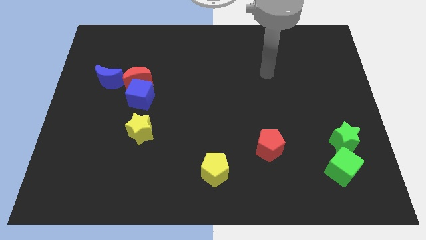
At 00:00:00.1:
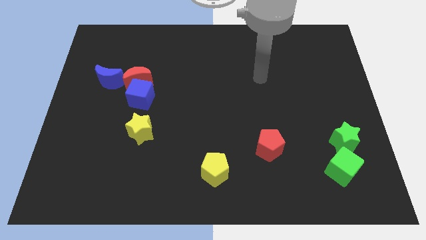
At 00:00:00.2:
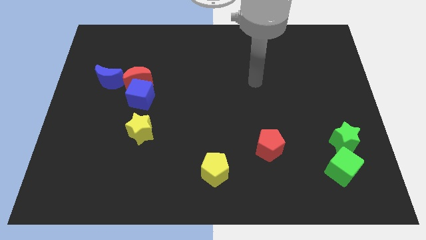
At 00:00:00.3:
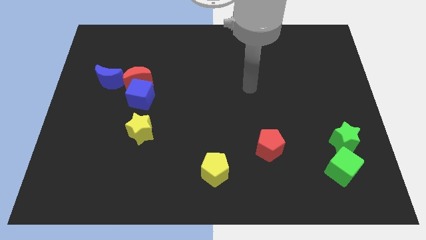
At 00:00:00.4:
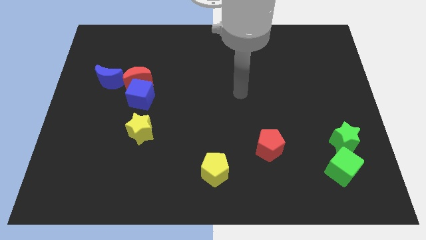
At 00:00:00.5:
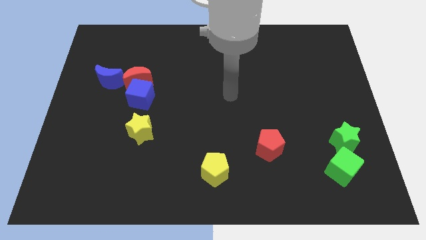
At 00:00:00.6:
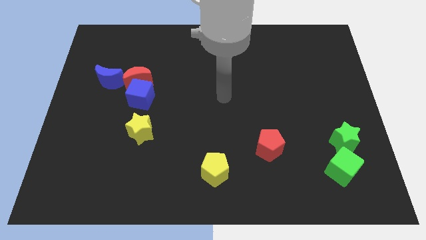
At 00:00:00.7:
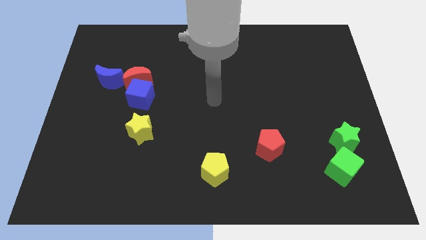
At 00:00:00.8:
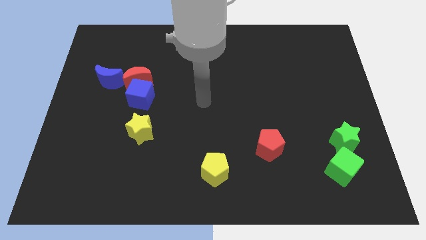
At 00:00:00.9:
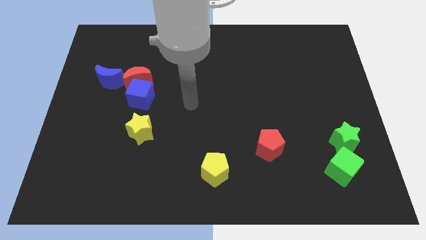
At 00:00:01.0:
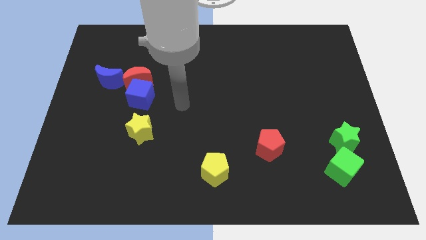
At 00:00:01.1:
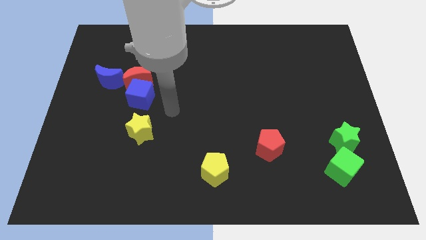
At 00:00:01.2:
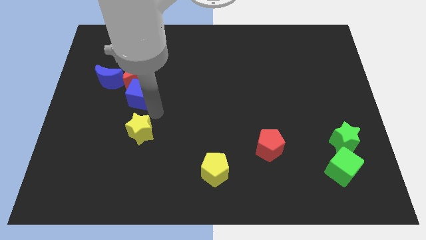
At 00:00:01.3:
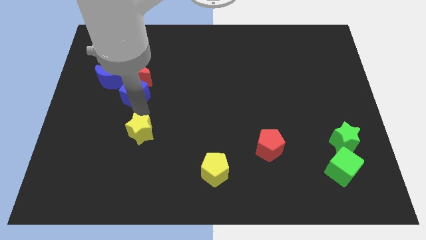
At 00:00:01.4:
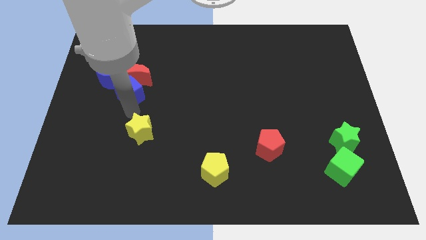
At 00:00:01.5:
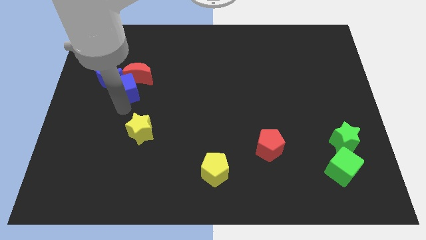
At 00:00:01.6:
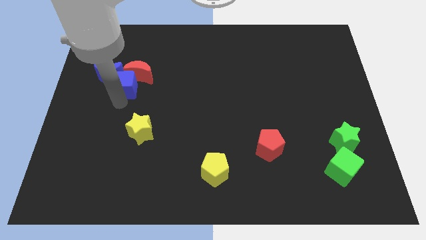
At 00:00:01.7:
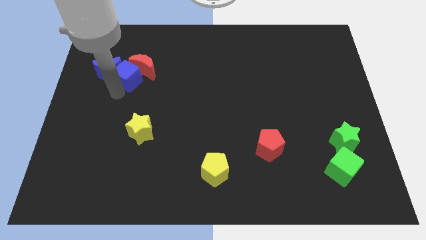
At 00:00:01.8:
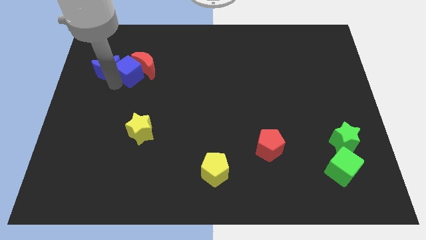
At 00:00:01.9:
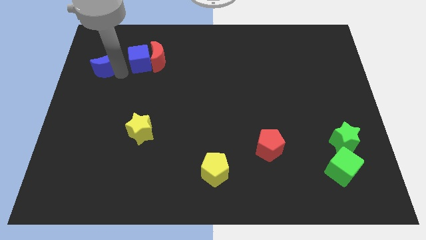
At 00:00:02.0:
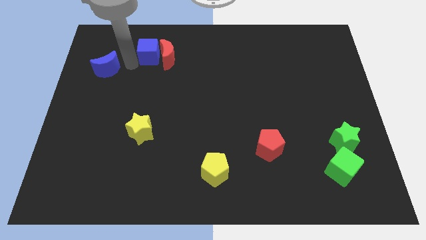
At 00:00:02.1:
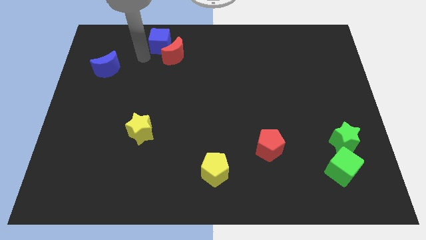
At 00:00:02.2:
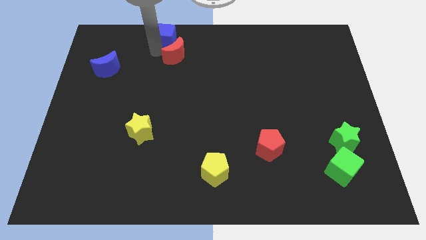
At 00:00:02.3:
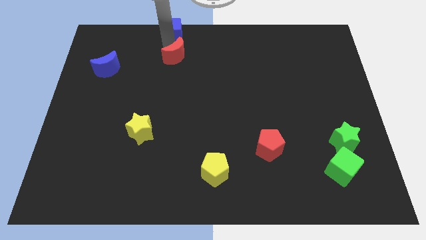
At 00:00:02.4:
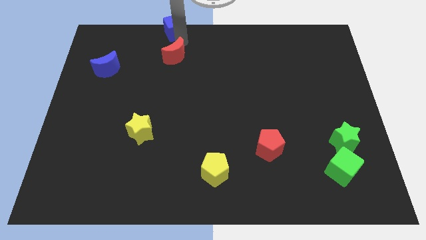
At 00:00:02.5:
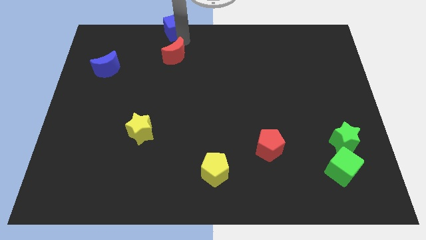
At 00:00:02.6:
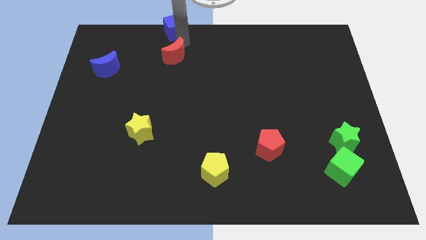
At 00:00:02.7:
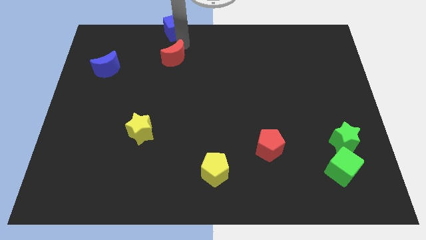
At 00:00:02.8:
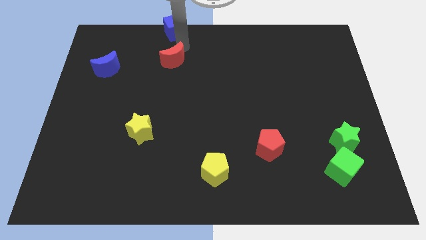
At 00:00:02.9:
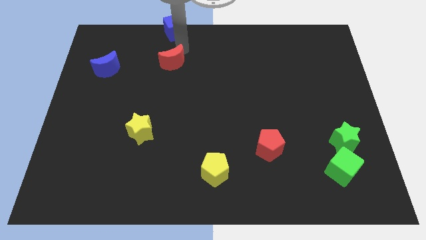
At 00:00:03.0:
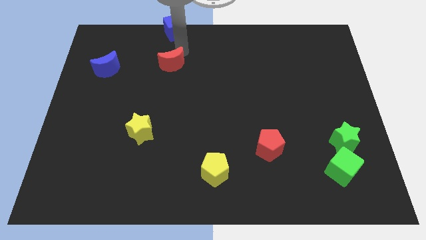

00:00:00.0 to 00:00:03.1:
move the red moon to the right a little bit

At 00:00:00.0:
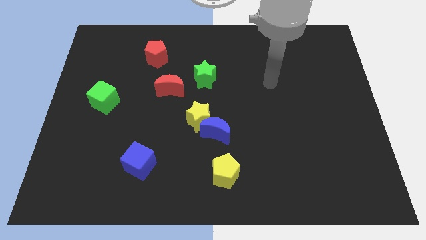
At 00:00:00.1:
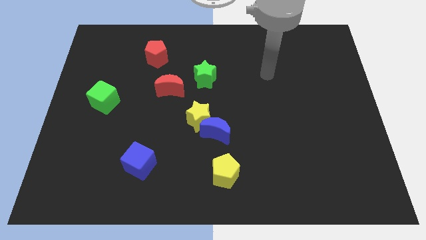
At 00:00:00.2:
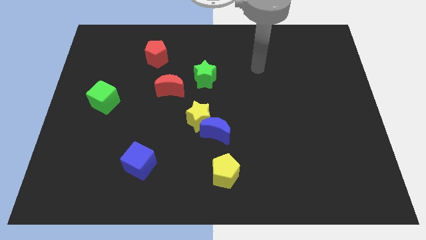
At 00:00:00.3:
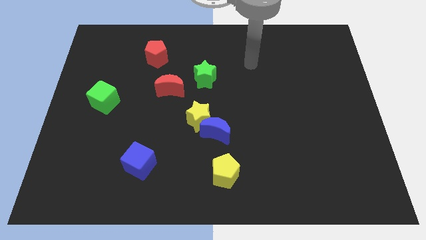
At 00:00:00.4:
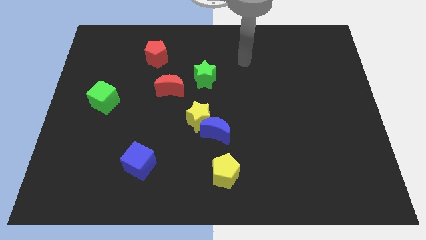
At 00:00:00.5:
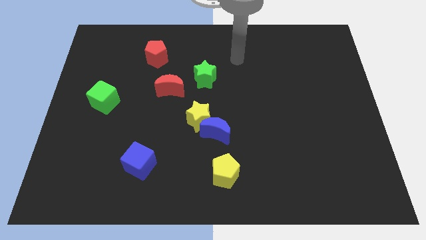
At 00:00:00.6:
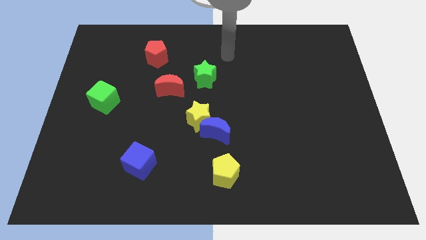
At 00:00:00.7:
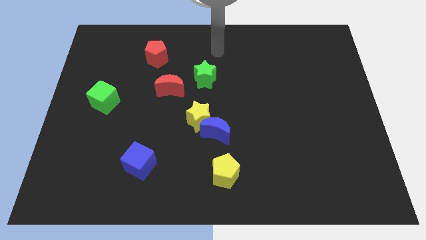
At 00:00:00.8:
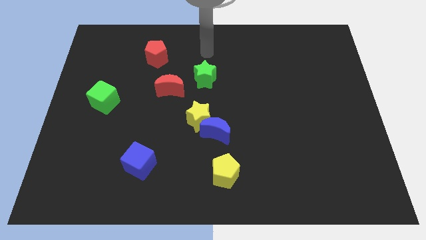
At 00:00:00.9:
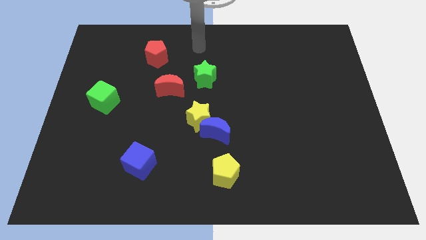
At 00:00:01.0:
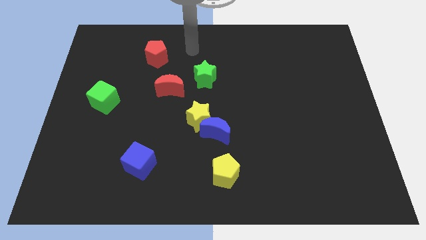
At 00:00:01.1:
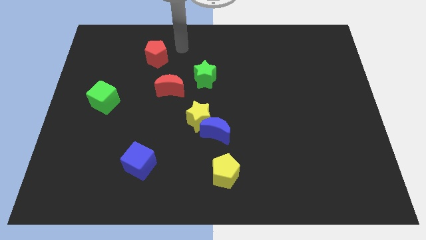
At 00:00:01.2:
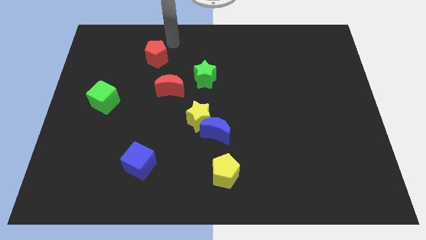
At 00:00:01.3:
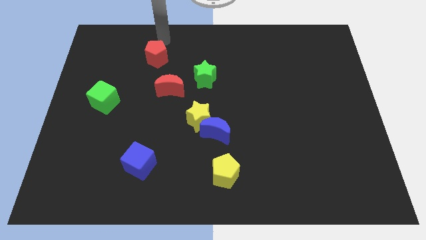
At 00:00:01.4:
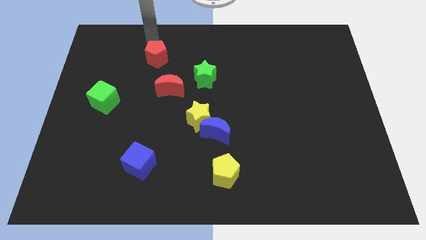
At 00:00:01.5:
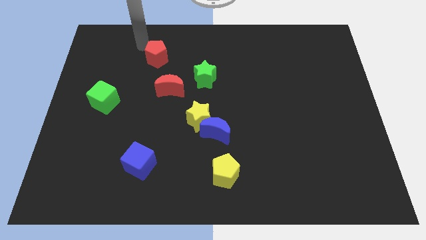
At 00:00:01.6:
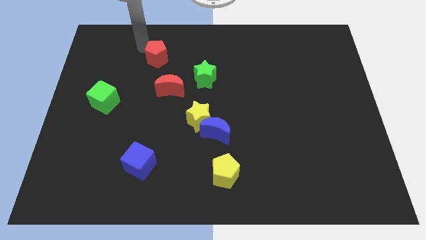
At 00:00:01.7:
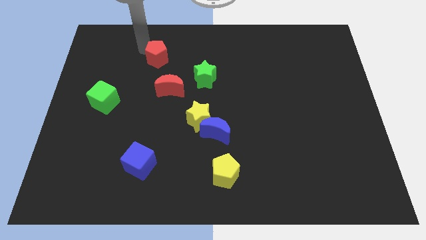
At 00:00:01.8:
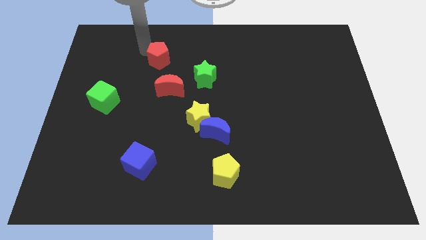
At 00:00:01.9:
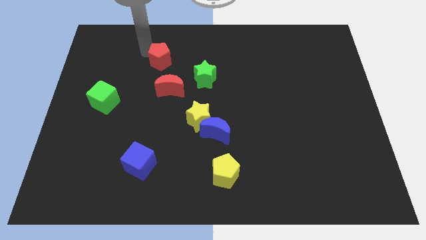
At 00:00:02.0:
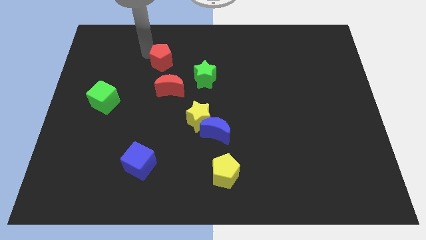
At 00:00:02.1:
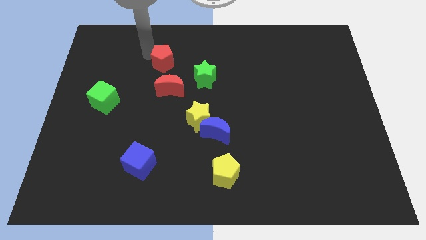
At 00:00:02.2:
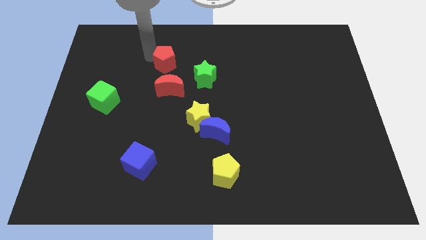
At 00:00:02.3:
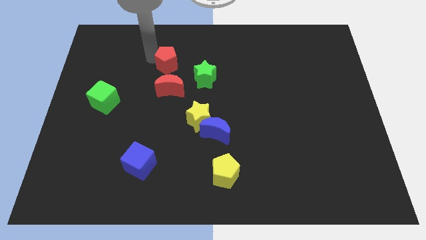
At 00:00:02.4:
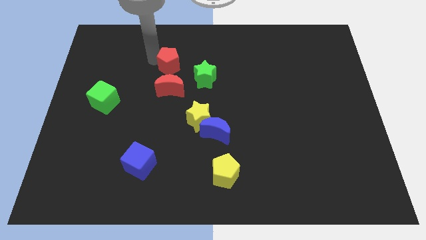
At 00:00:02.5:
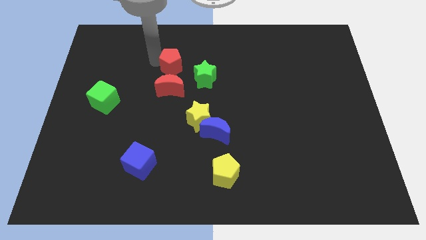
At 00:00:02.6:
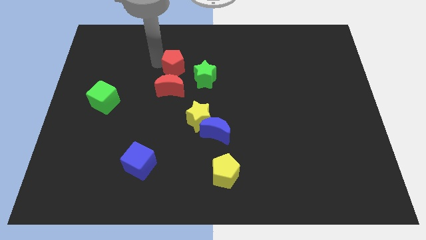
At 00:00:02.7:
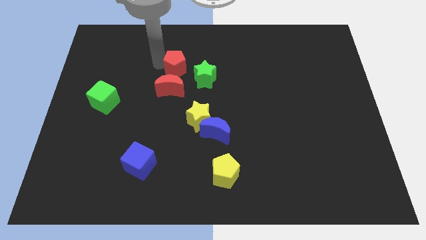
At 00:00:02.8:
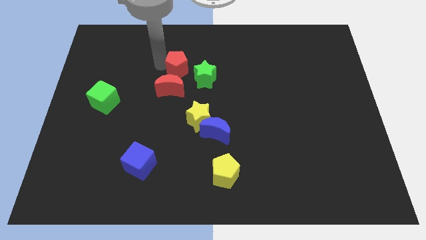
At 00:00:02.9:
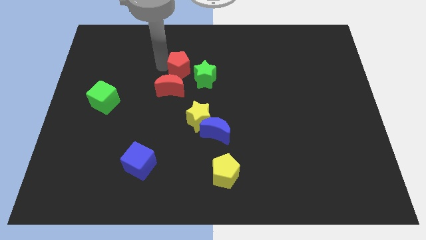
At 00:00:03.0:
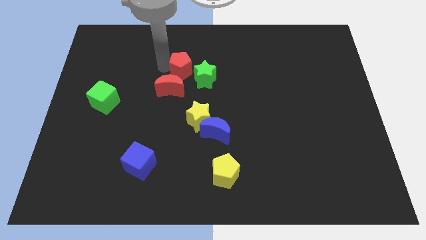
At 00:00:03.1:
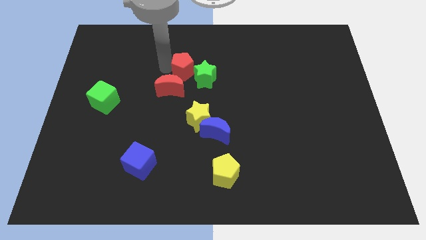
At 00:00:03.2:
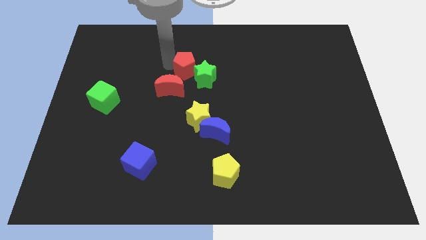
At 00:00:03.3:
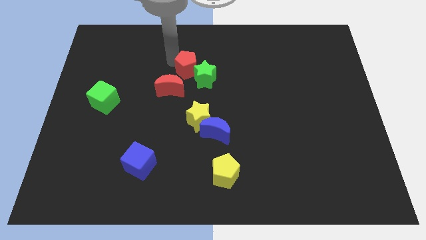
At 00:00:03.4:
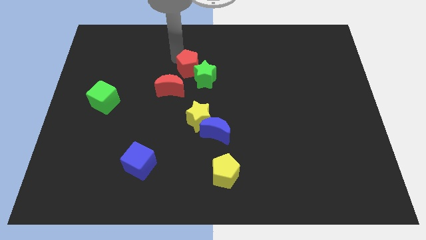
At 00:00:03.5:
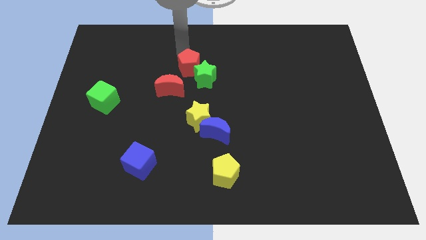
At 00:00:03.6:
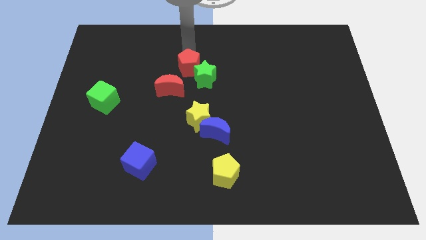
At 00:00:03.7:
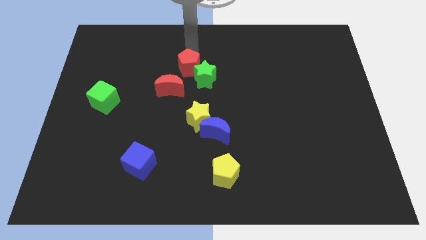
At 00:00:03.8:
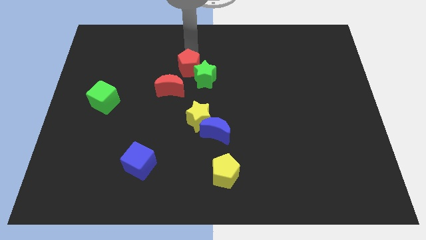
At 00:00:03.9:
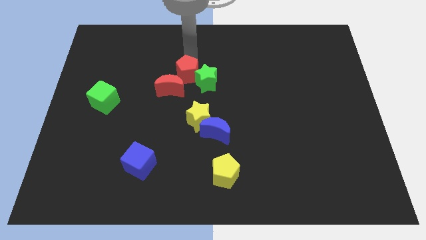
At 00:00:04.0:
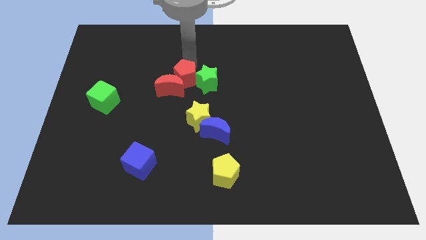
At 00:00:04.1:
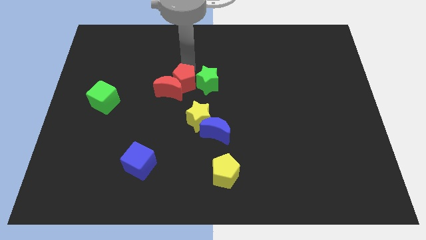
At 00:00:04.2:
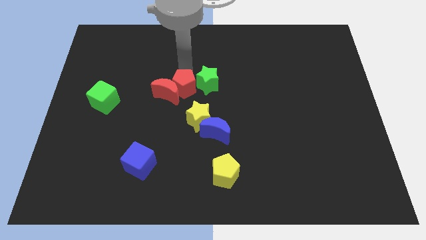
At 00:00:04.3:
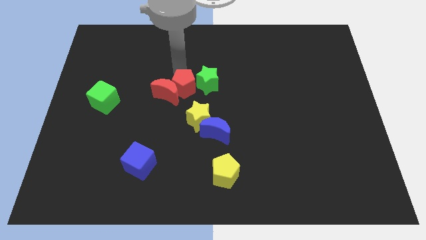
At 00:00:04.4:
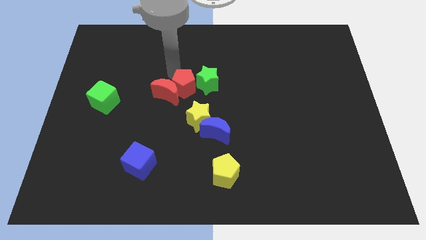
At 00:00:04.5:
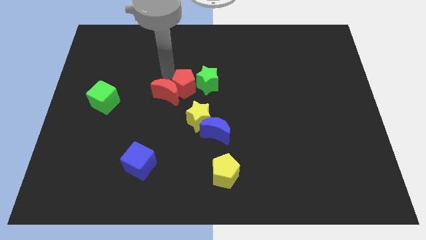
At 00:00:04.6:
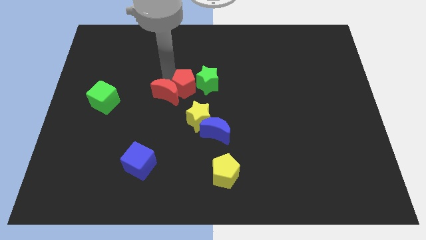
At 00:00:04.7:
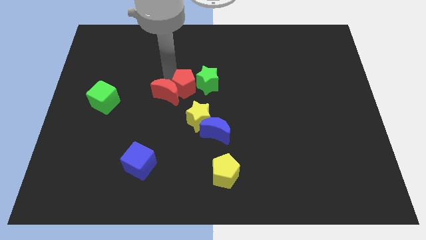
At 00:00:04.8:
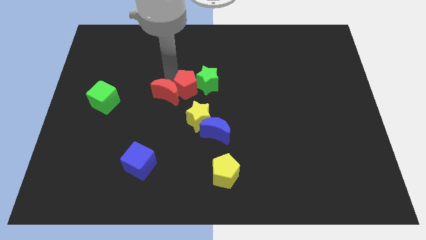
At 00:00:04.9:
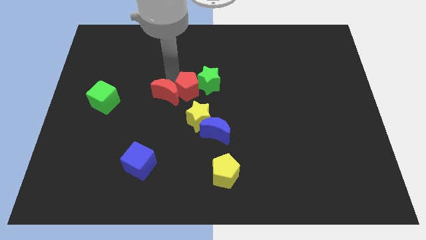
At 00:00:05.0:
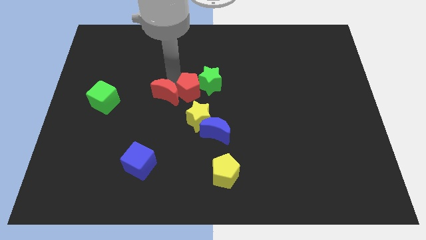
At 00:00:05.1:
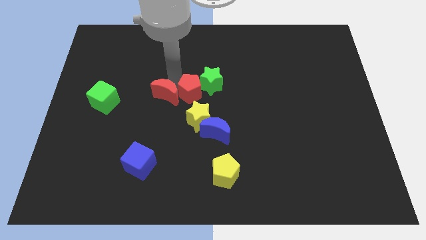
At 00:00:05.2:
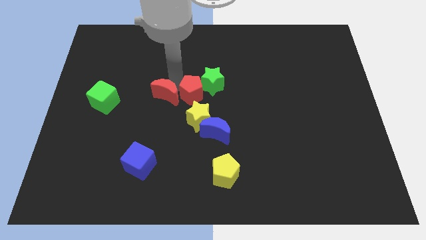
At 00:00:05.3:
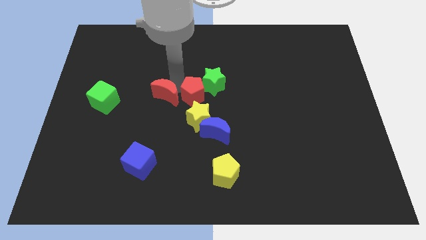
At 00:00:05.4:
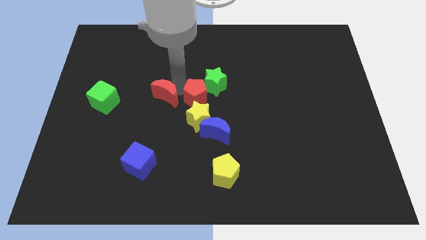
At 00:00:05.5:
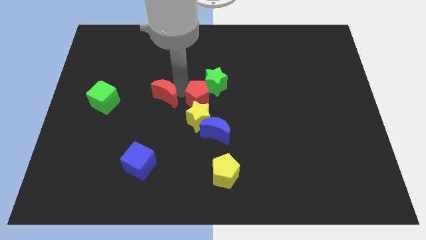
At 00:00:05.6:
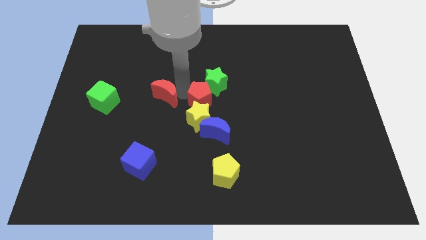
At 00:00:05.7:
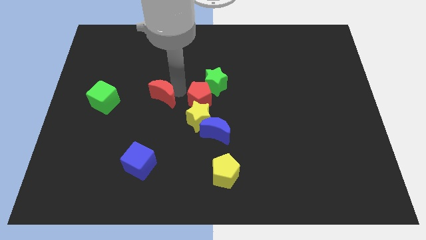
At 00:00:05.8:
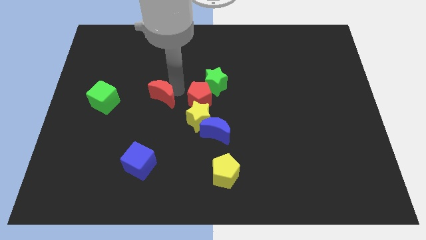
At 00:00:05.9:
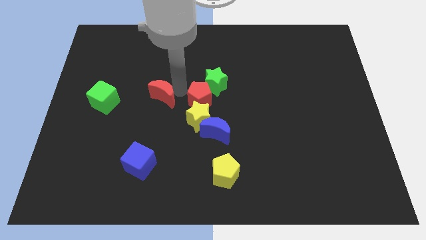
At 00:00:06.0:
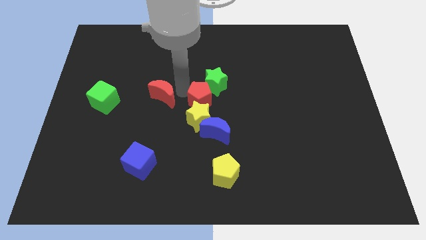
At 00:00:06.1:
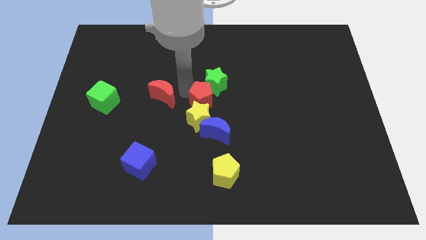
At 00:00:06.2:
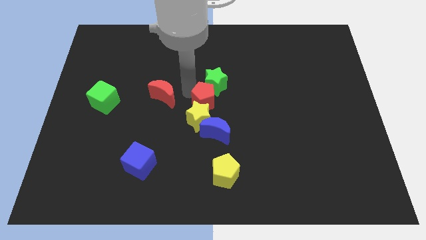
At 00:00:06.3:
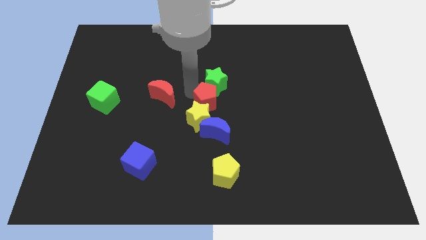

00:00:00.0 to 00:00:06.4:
slide the red pentagon down and right
